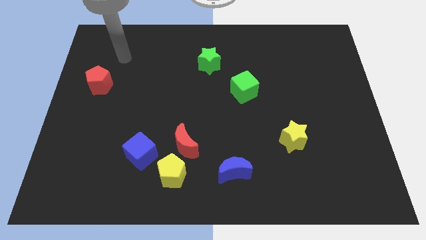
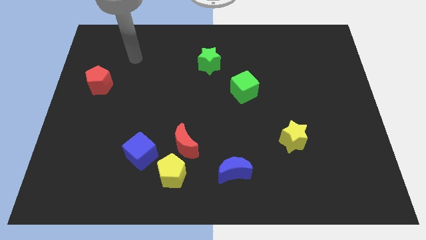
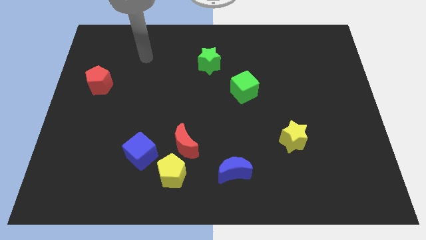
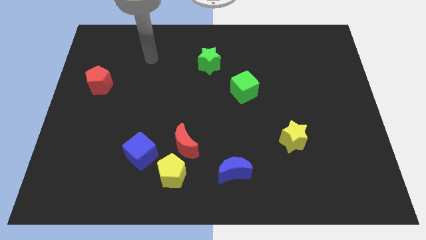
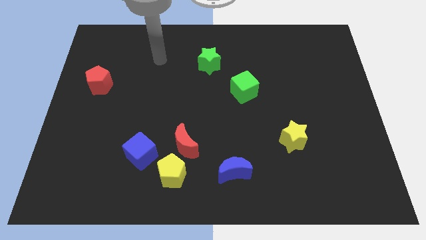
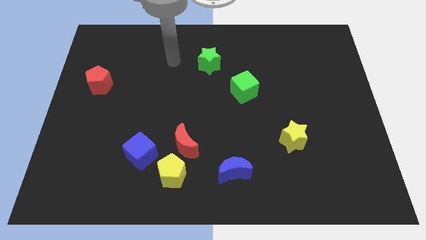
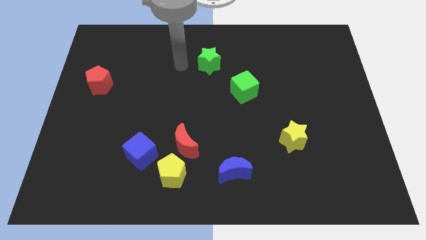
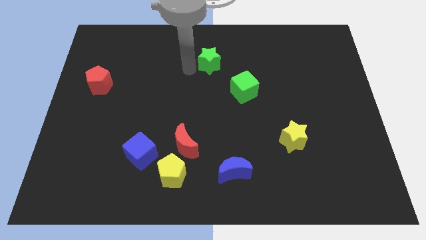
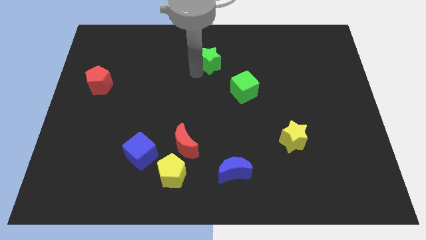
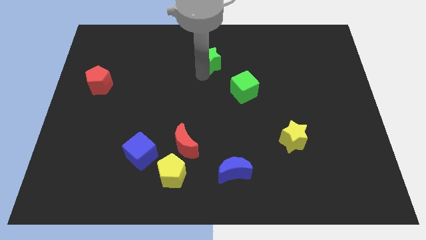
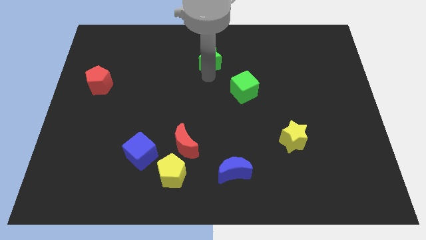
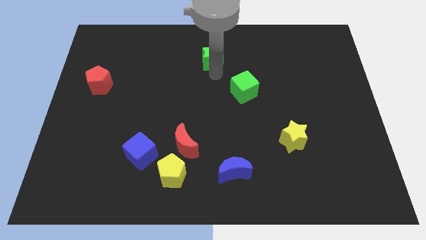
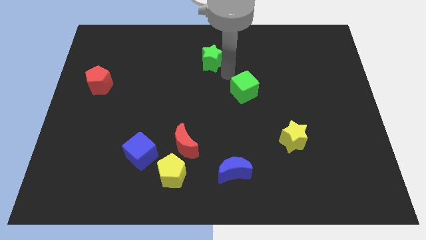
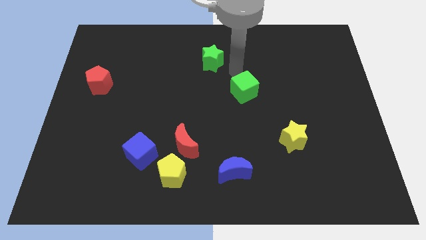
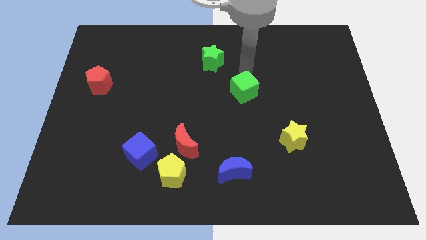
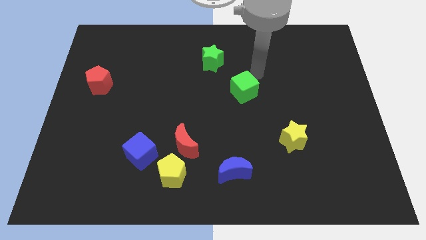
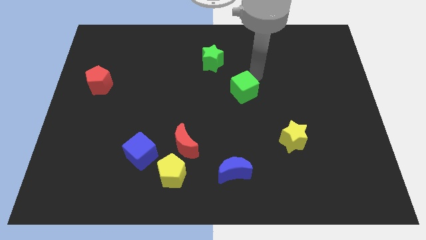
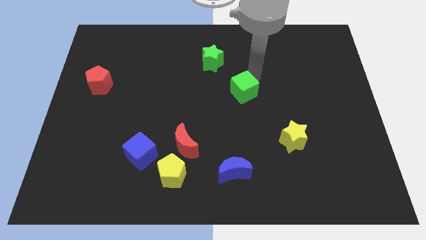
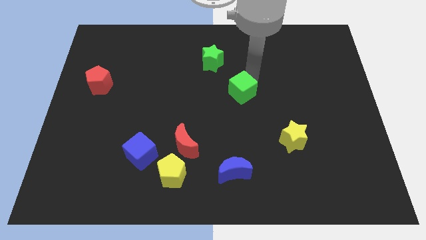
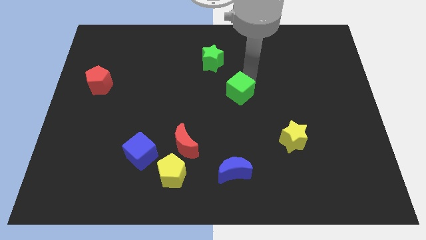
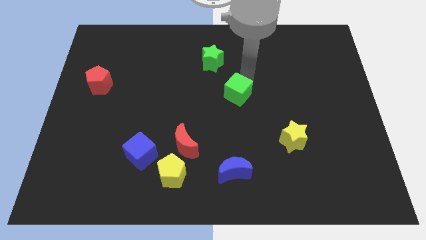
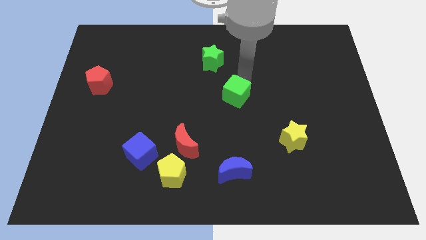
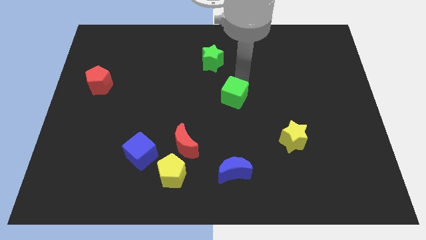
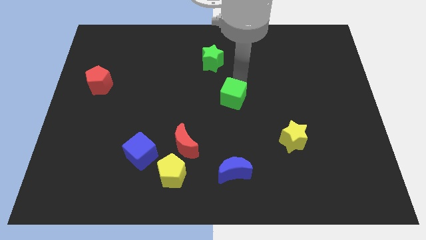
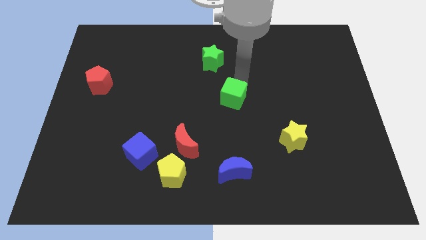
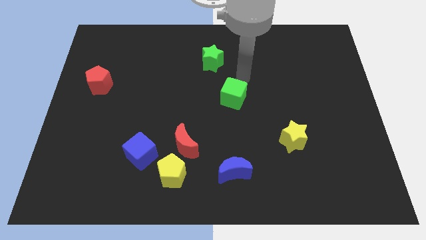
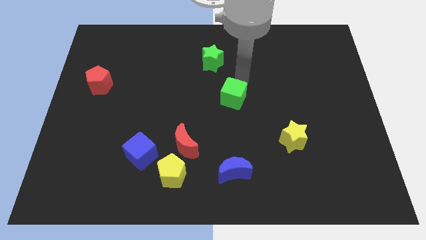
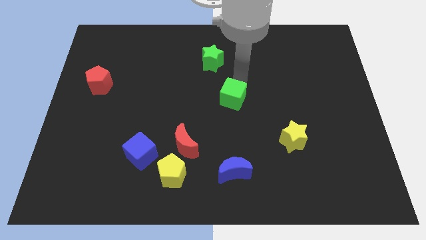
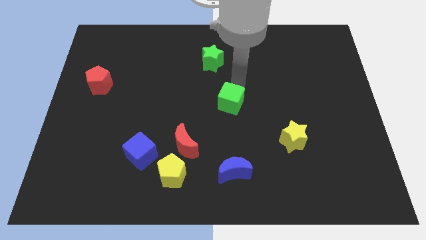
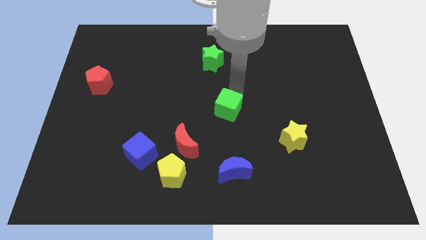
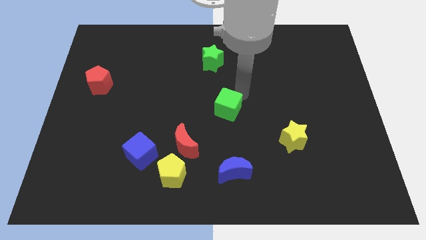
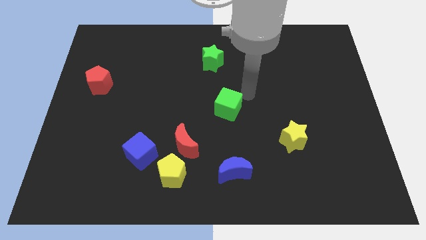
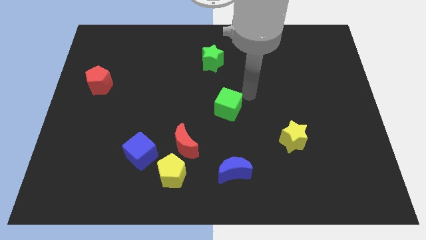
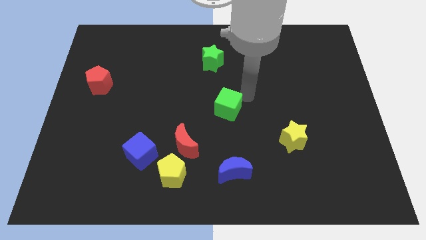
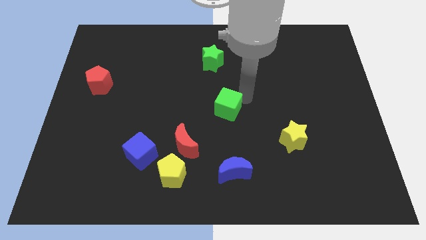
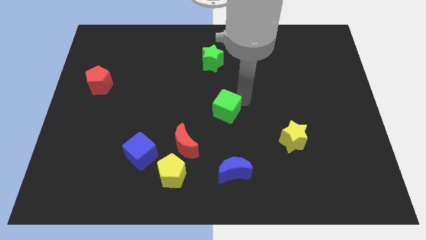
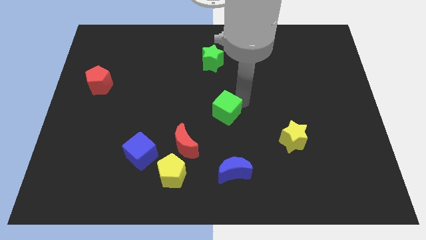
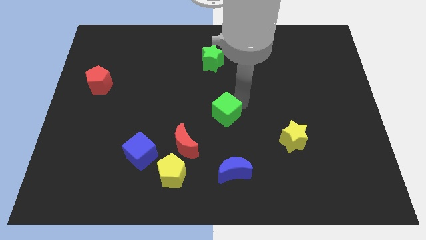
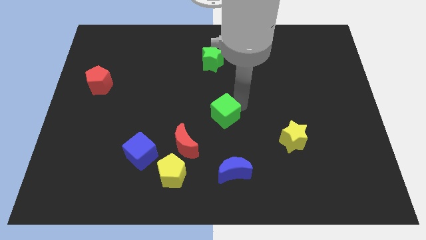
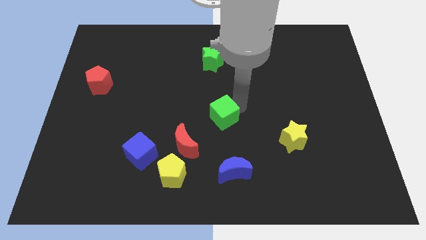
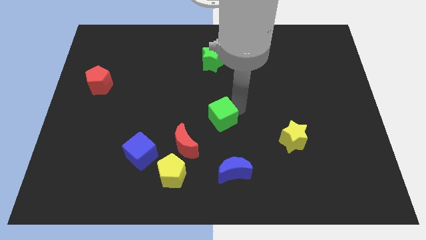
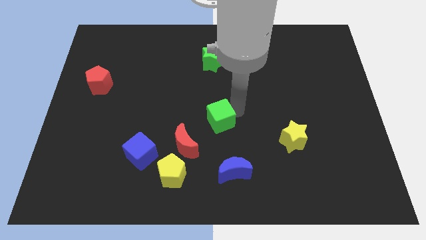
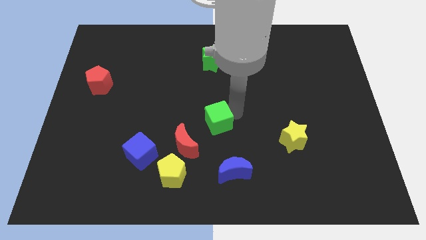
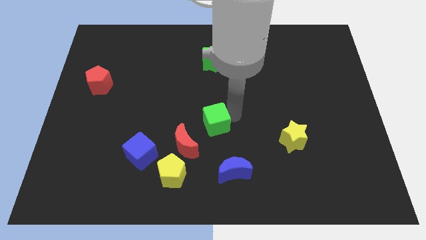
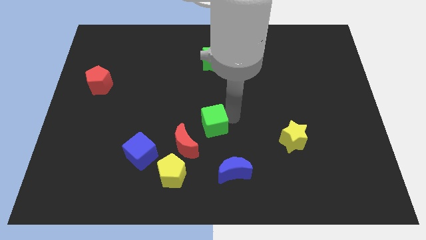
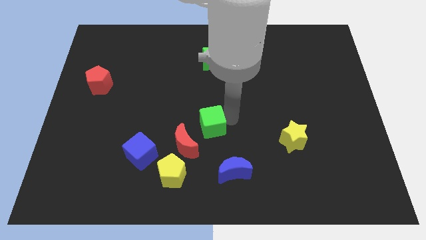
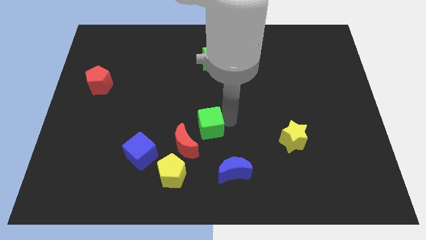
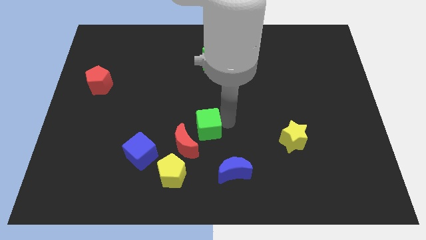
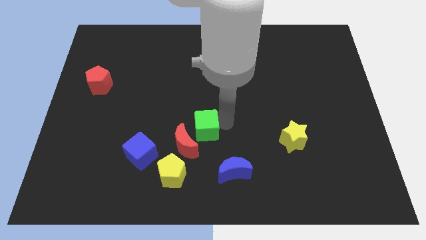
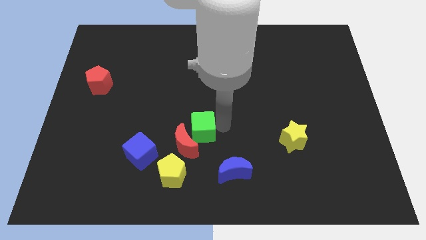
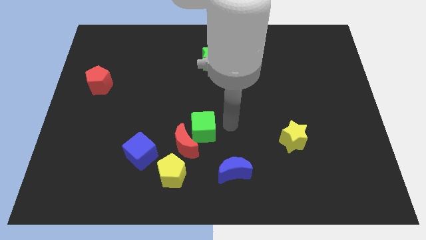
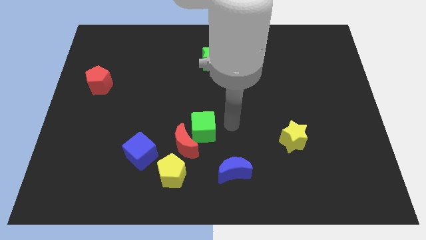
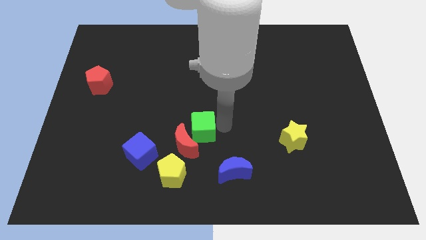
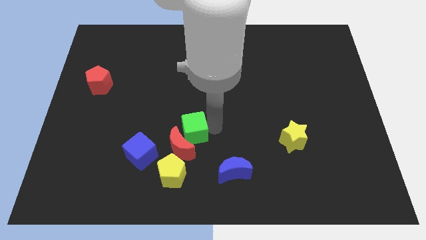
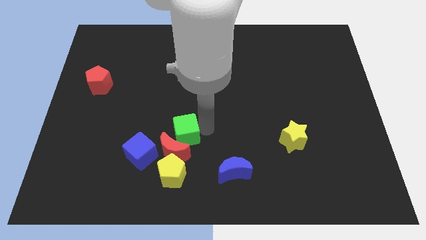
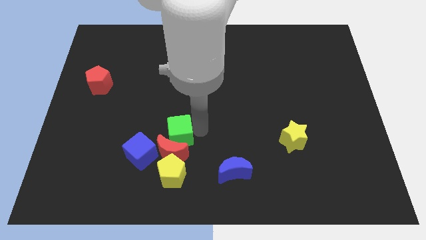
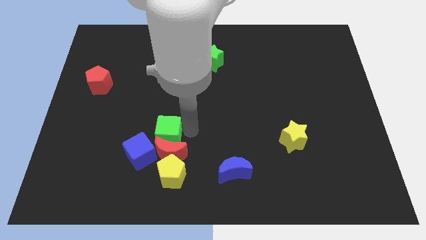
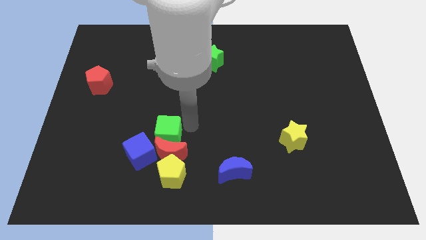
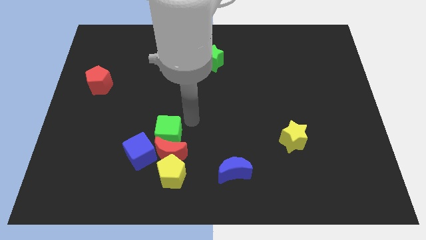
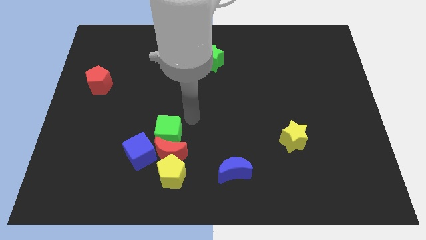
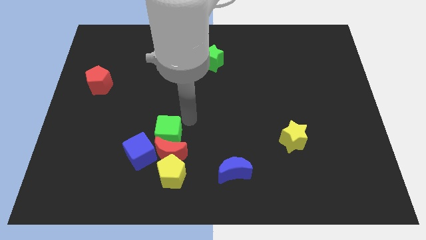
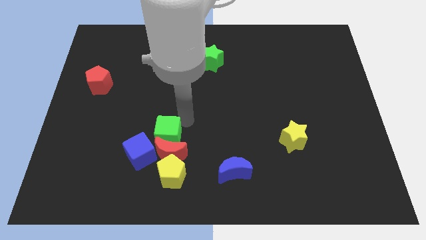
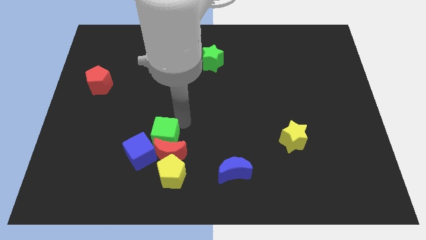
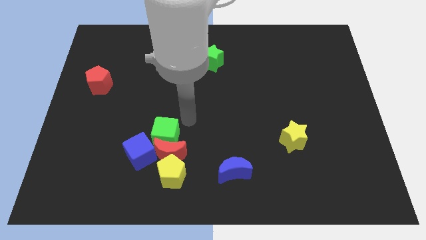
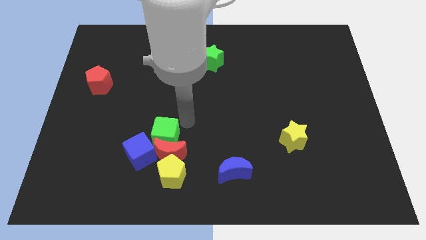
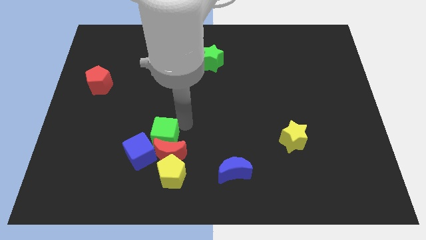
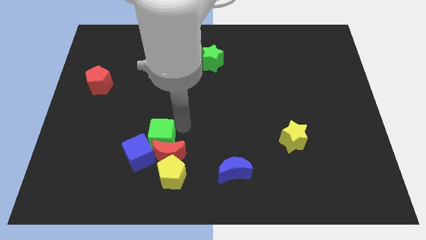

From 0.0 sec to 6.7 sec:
slide the green cube towards the blue cube

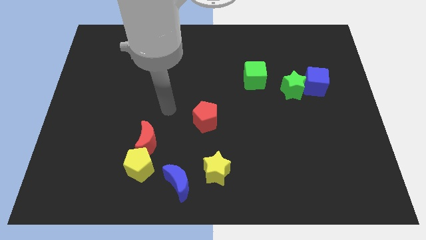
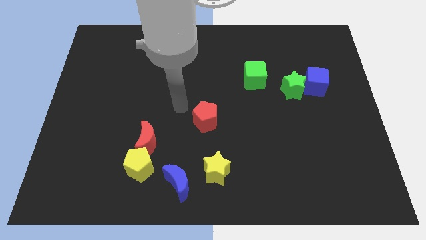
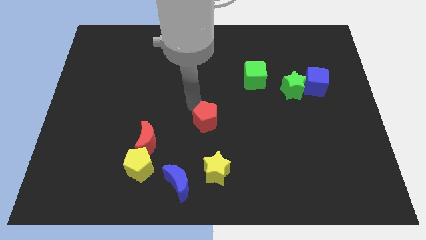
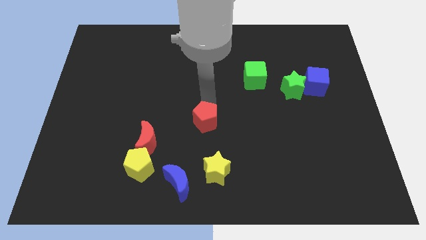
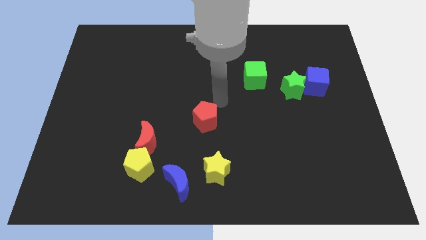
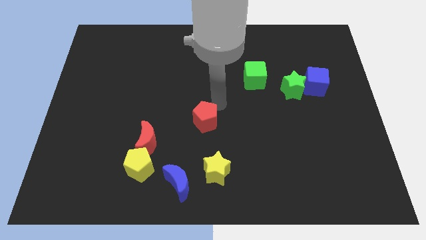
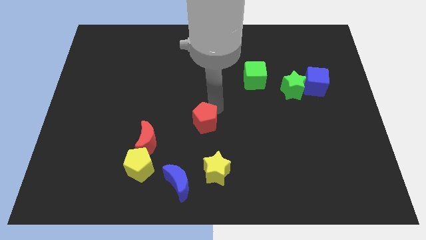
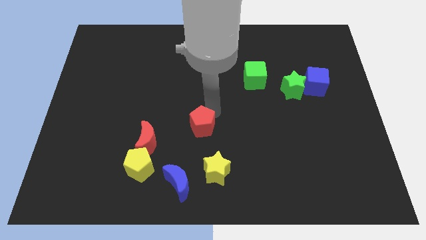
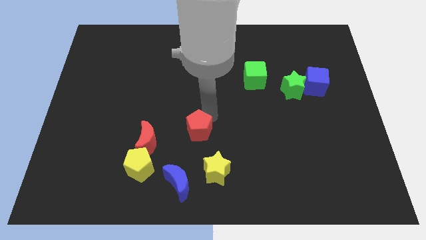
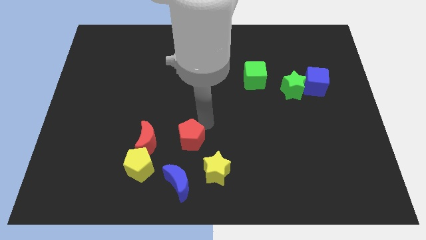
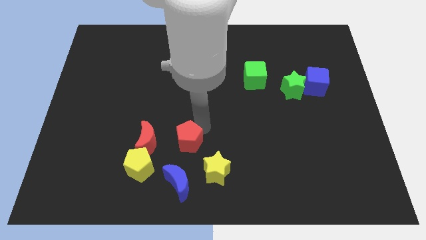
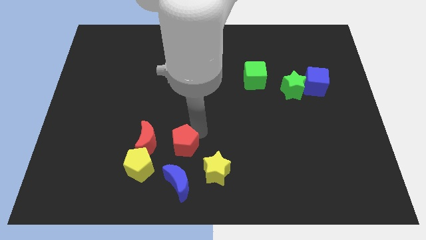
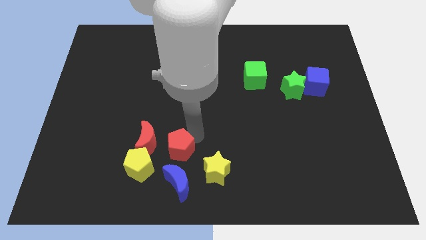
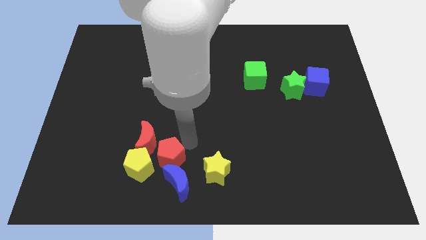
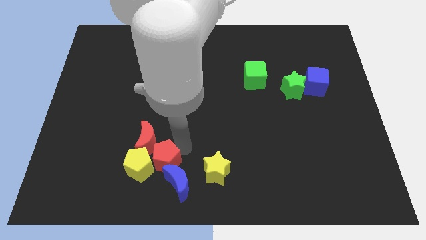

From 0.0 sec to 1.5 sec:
move the red pentagon towards the yellow pentagon

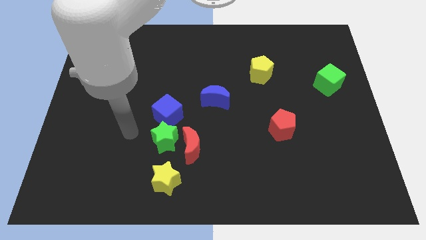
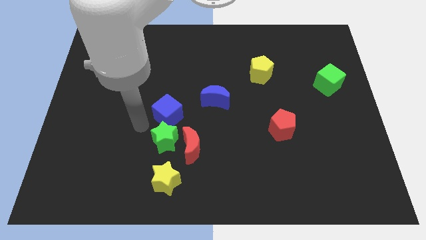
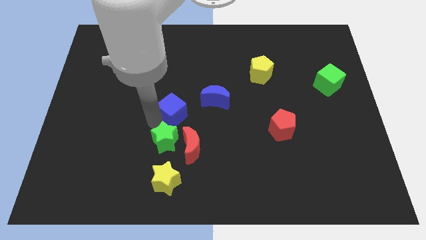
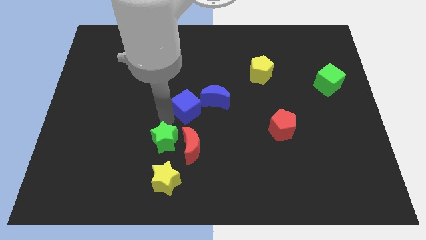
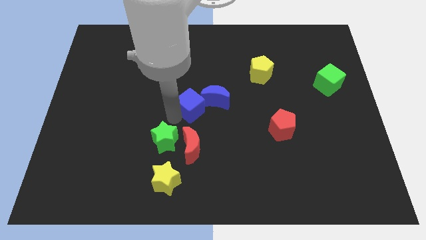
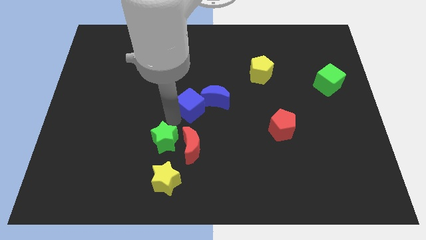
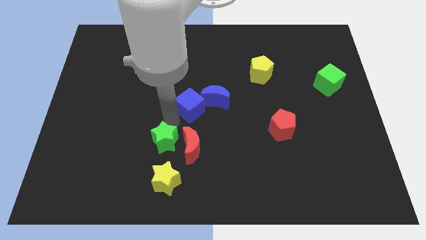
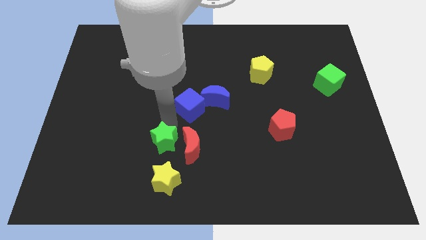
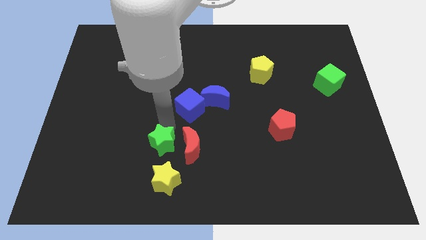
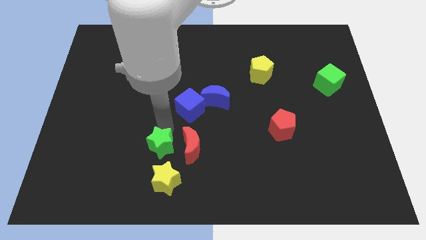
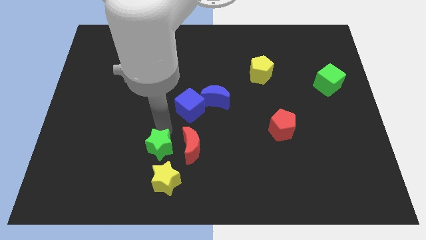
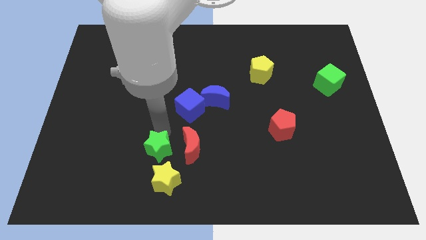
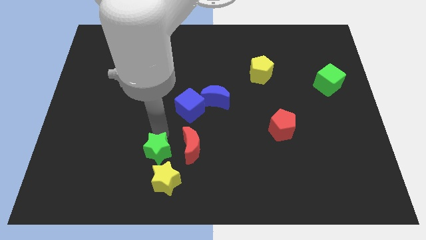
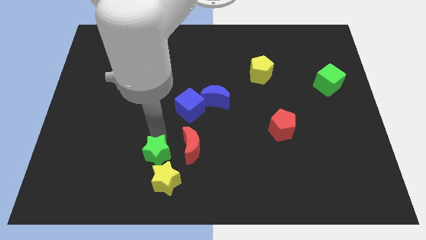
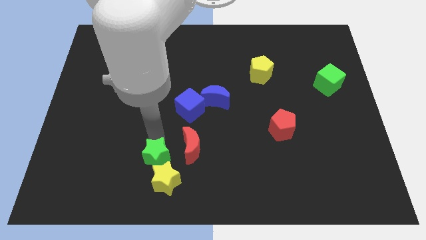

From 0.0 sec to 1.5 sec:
move the green star to the yellow star
